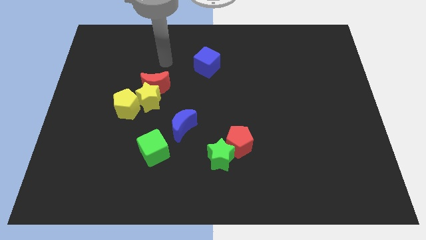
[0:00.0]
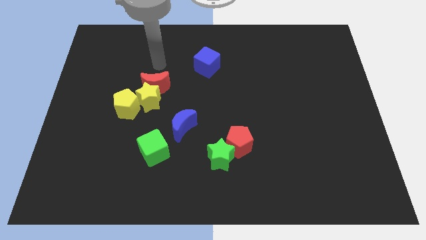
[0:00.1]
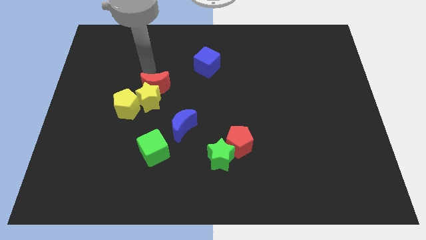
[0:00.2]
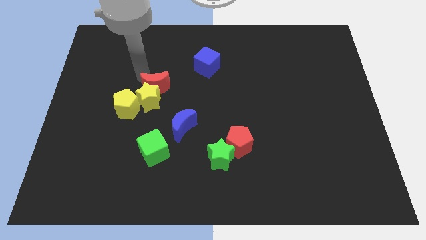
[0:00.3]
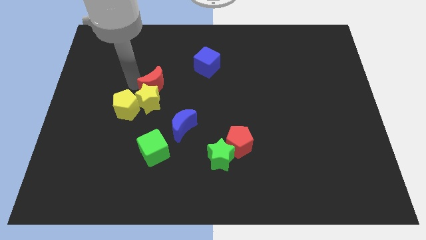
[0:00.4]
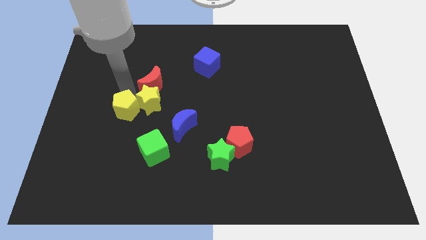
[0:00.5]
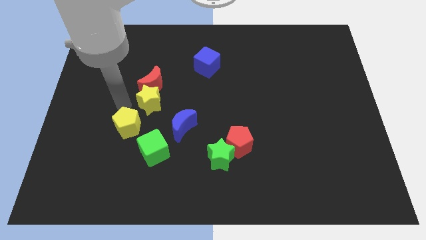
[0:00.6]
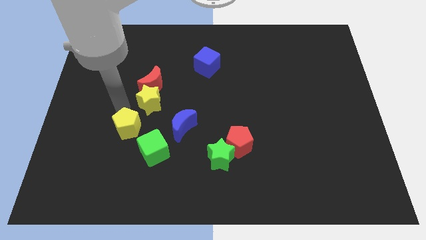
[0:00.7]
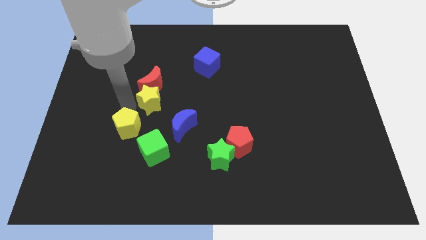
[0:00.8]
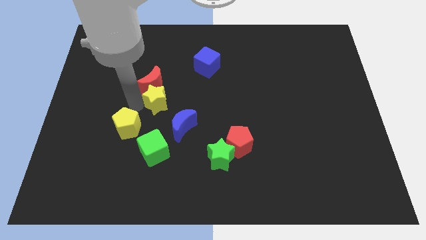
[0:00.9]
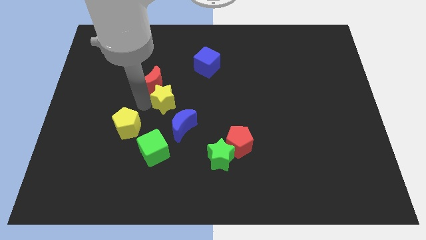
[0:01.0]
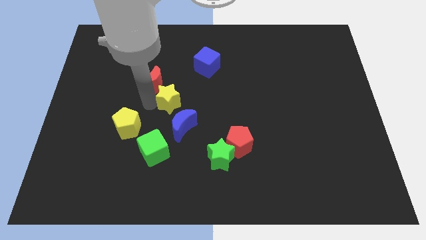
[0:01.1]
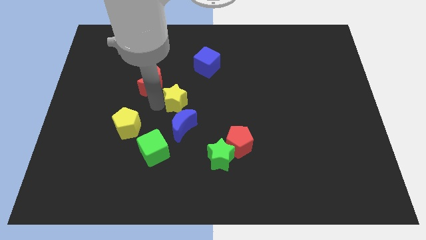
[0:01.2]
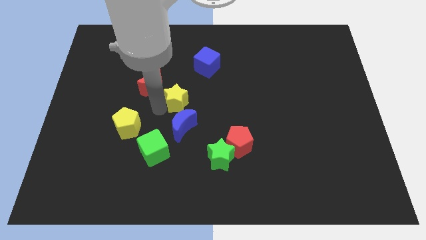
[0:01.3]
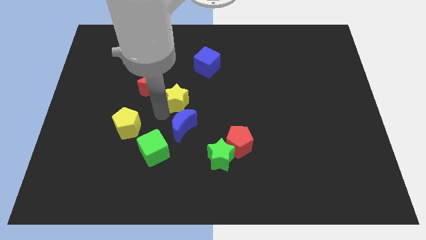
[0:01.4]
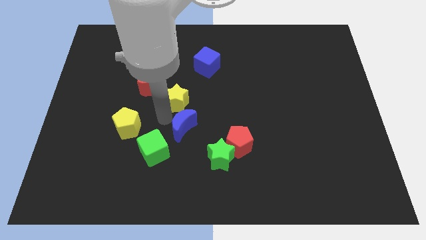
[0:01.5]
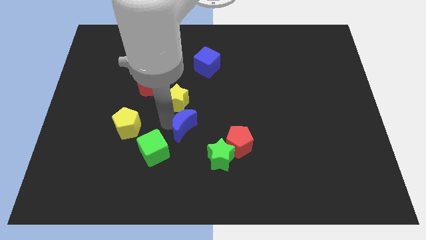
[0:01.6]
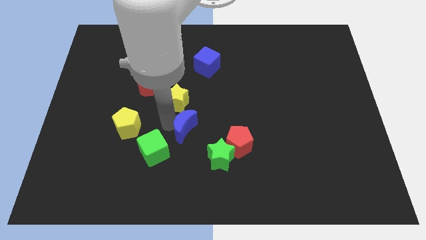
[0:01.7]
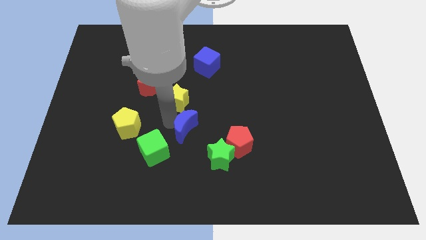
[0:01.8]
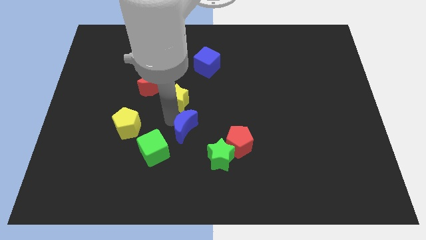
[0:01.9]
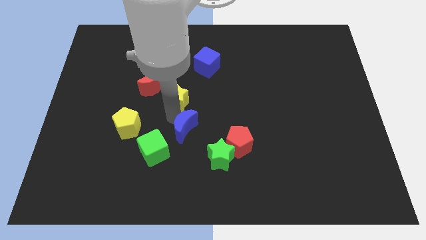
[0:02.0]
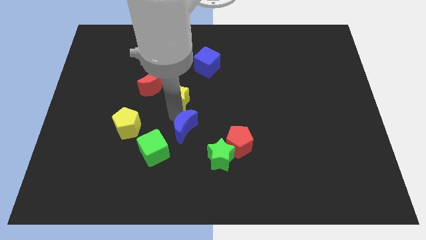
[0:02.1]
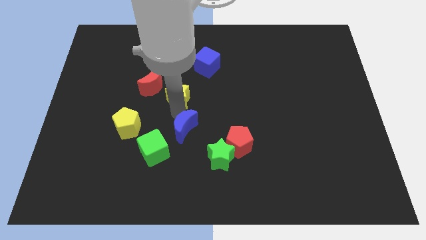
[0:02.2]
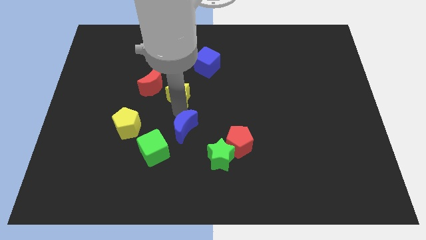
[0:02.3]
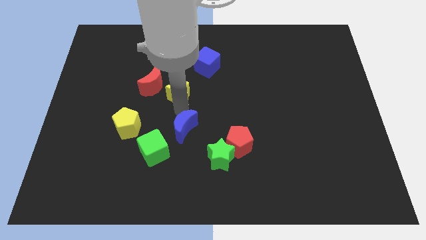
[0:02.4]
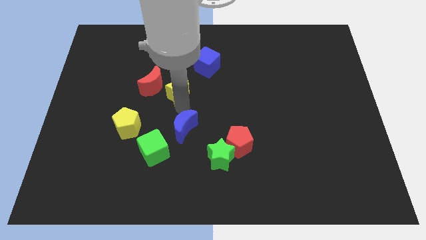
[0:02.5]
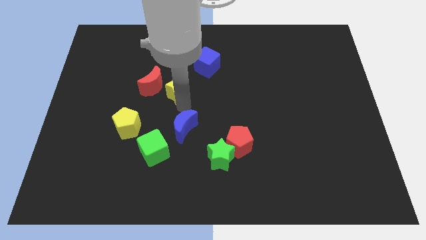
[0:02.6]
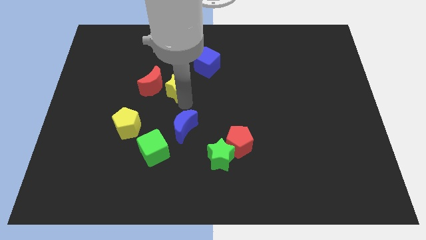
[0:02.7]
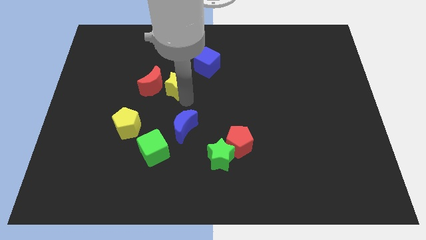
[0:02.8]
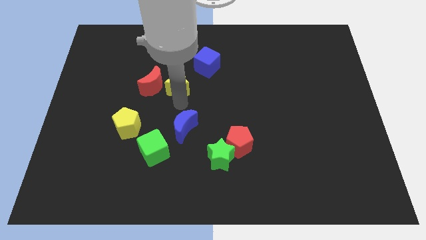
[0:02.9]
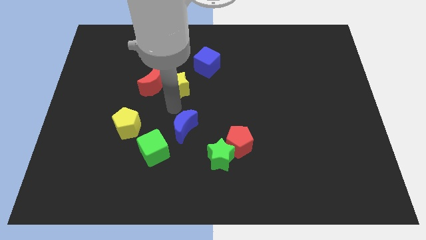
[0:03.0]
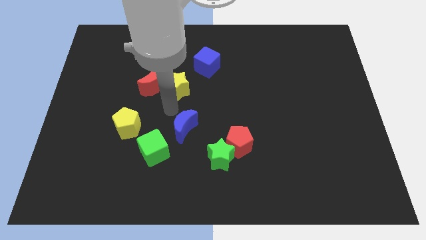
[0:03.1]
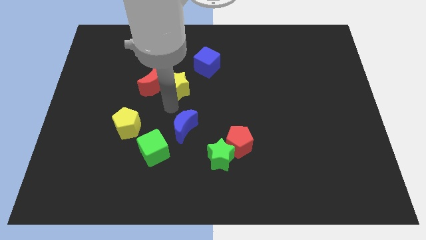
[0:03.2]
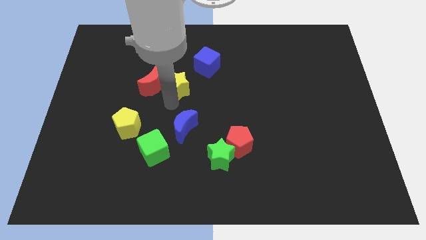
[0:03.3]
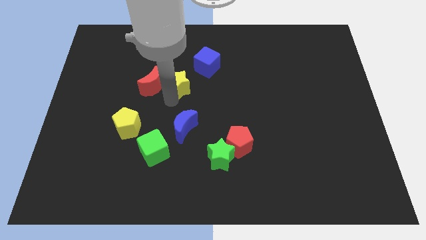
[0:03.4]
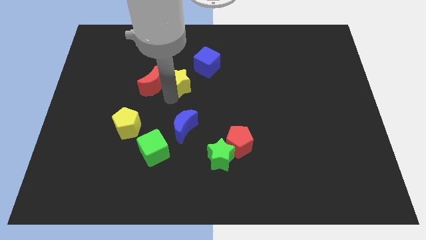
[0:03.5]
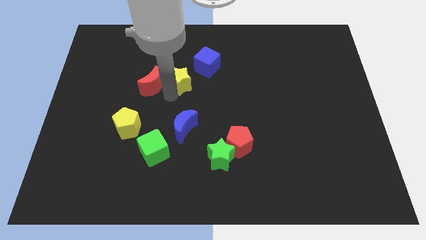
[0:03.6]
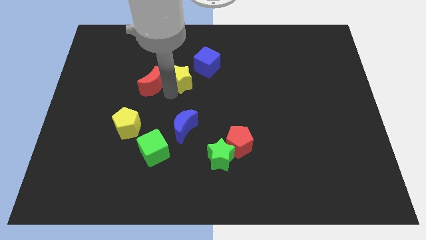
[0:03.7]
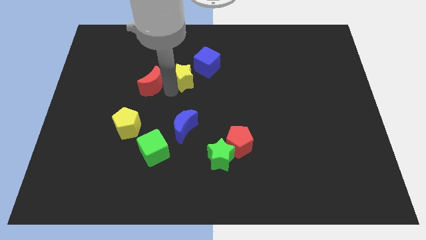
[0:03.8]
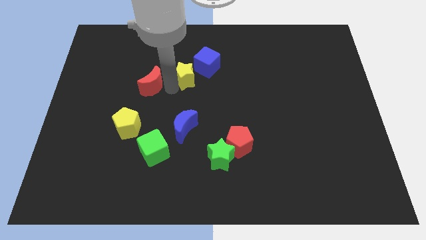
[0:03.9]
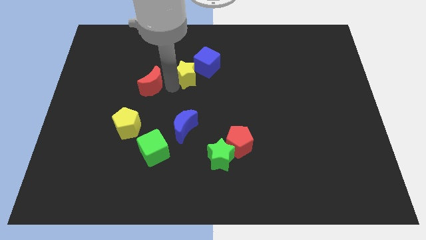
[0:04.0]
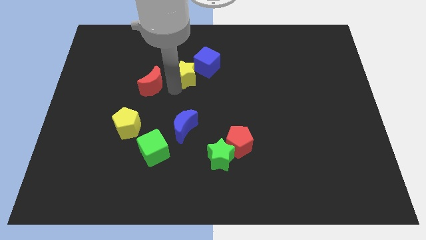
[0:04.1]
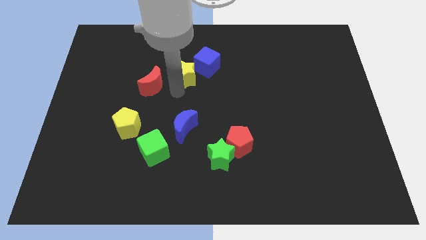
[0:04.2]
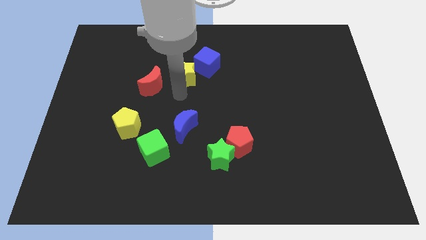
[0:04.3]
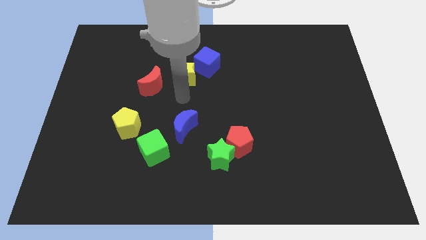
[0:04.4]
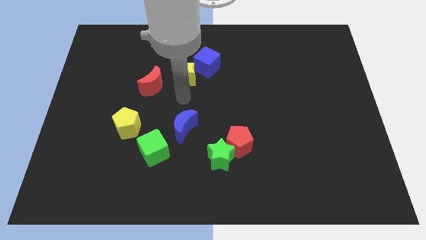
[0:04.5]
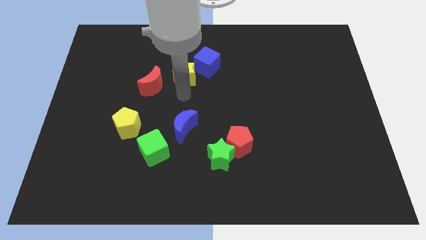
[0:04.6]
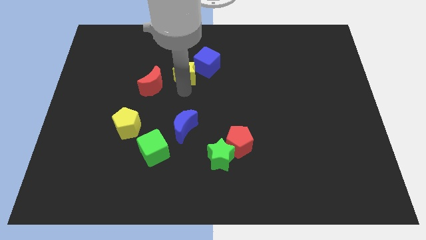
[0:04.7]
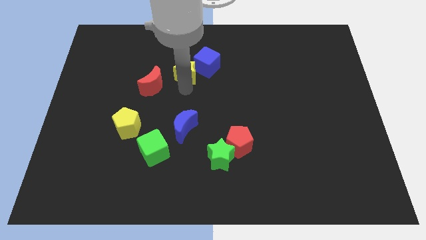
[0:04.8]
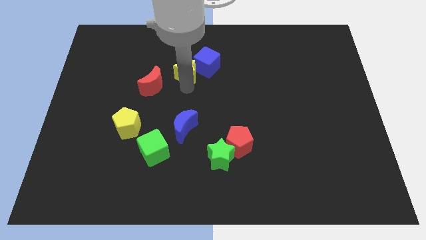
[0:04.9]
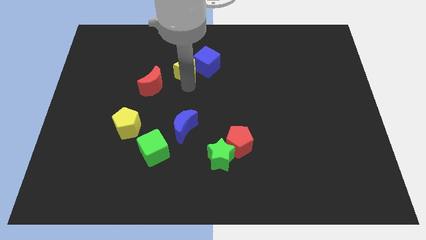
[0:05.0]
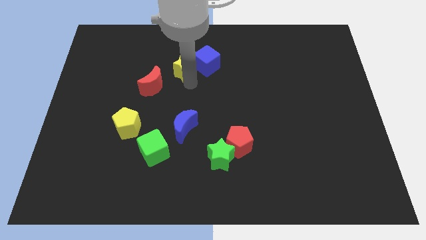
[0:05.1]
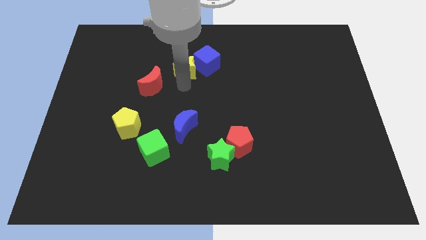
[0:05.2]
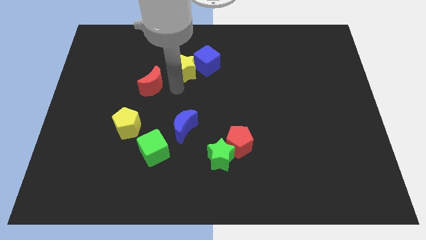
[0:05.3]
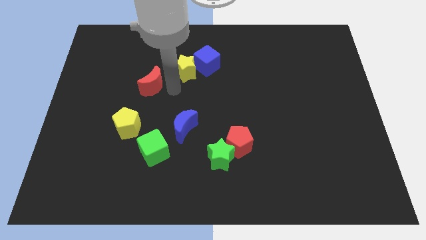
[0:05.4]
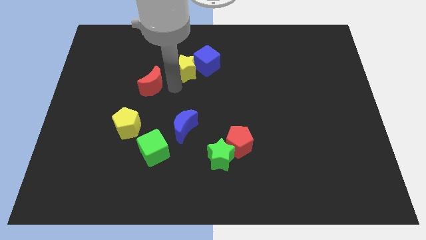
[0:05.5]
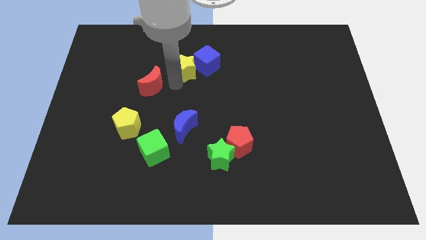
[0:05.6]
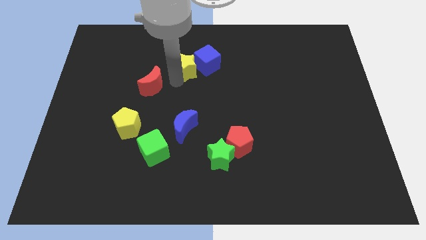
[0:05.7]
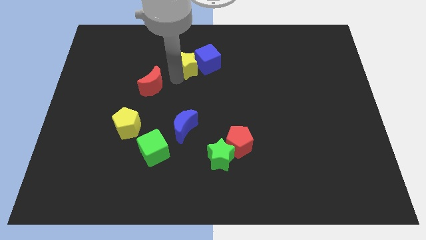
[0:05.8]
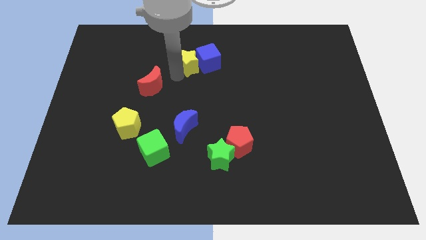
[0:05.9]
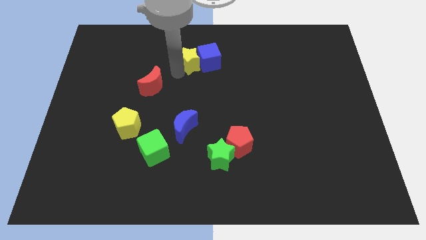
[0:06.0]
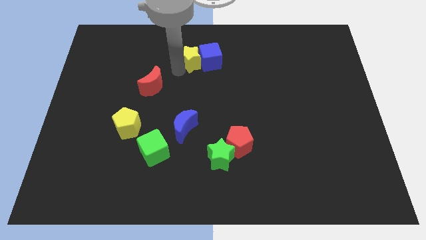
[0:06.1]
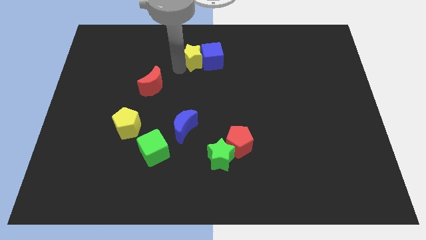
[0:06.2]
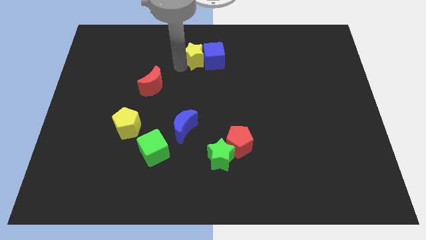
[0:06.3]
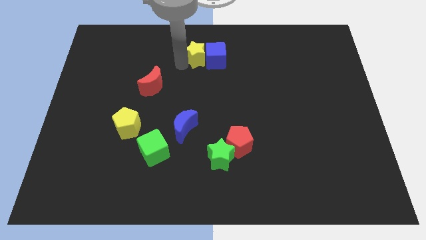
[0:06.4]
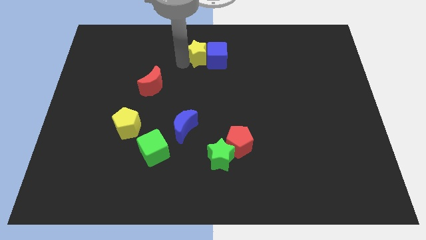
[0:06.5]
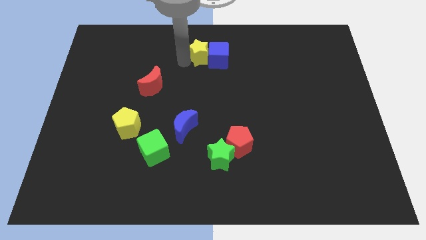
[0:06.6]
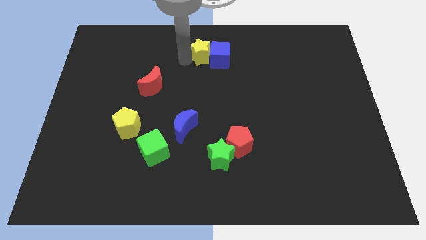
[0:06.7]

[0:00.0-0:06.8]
push the yellow star to the top side
